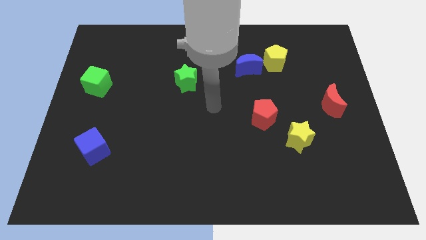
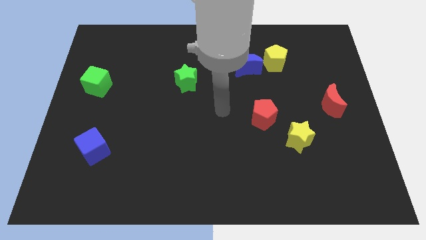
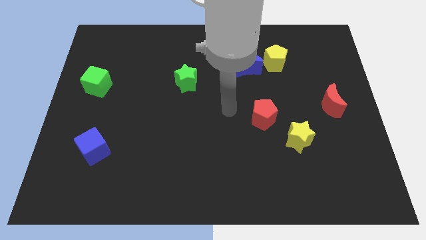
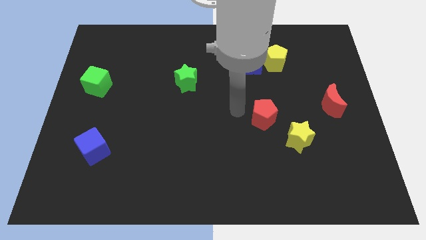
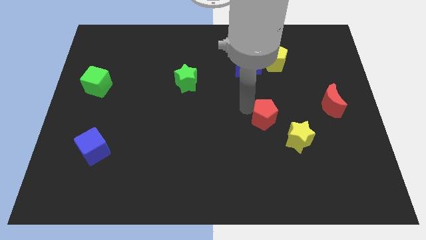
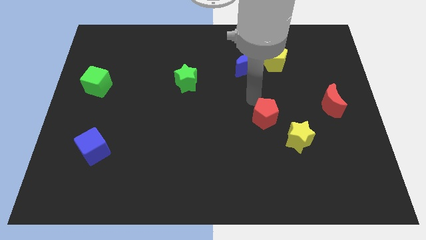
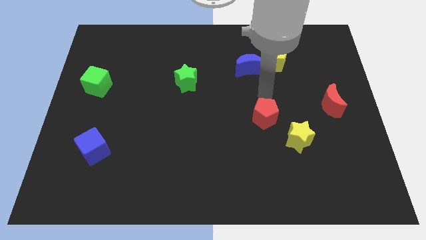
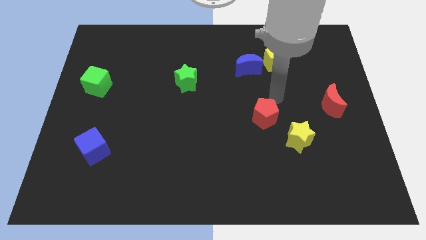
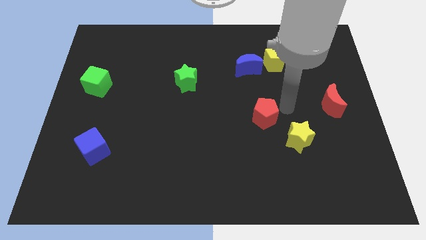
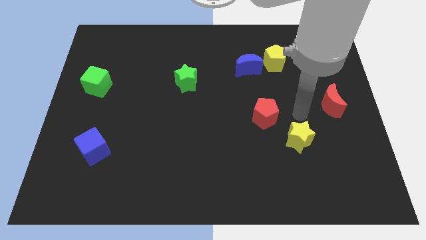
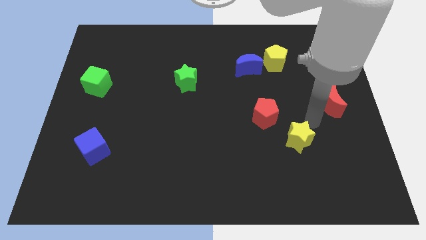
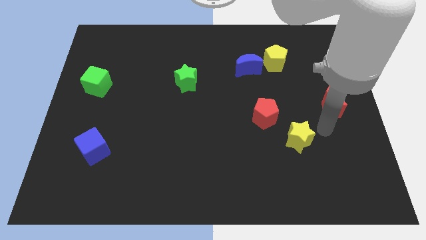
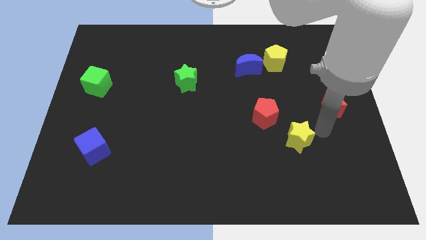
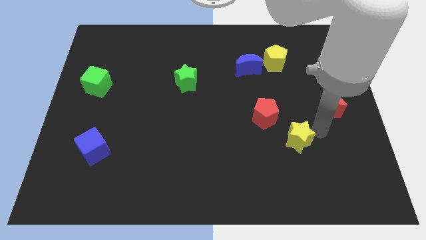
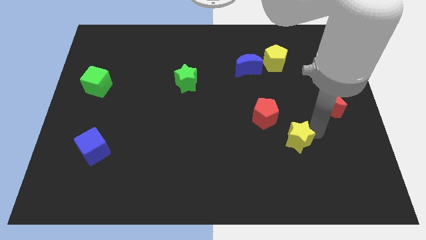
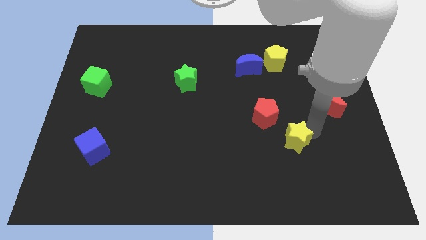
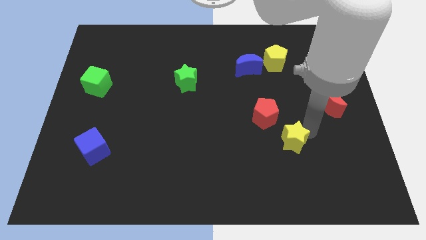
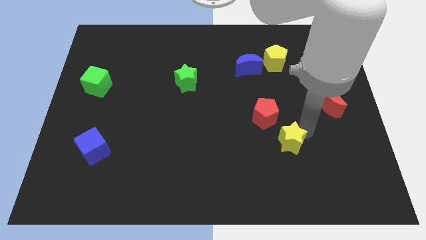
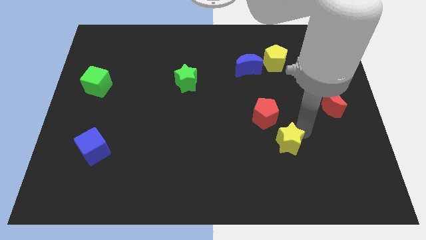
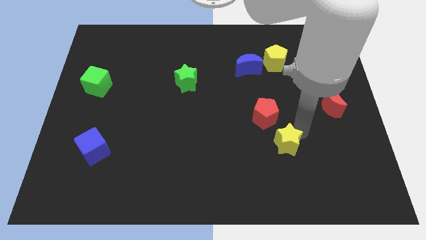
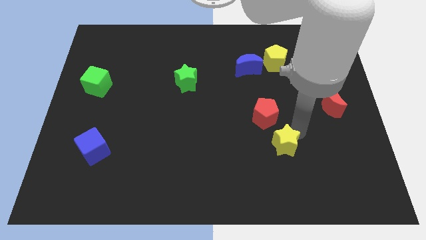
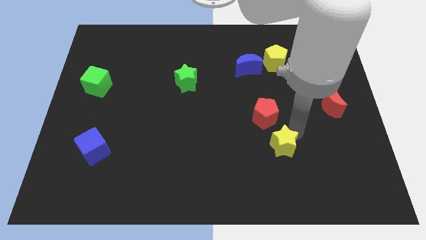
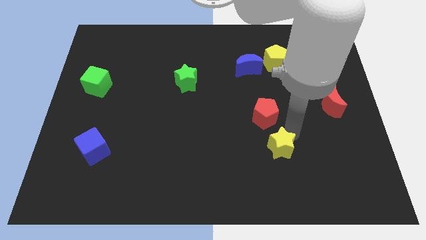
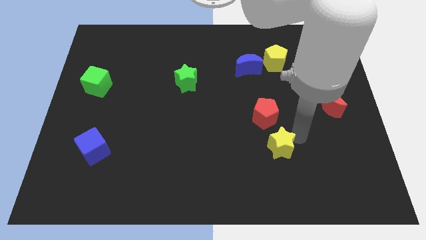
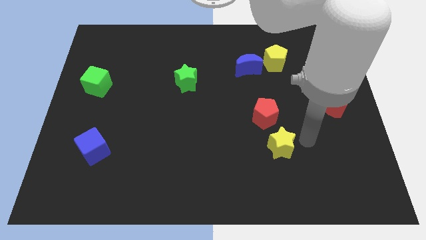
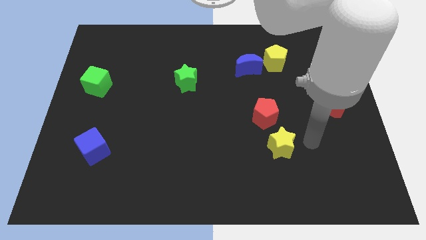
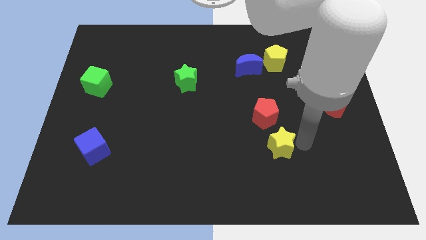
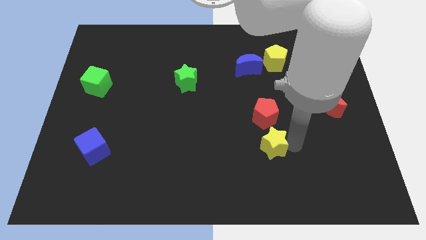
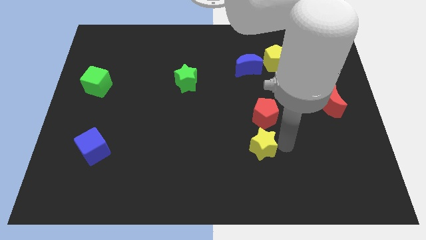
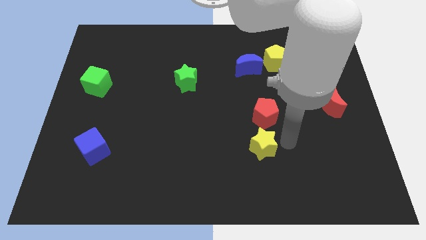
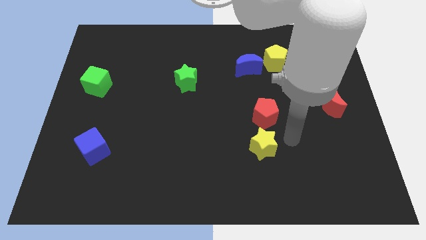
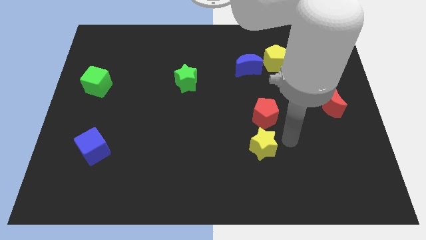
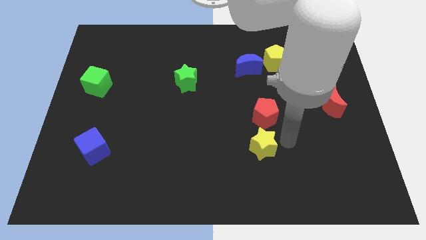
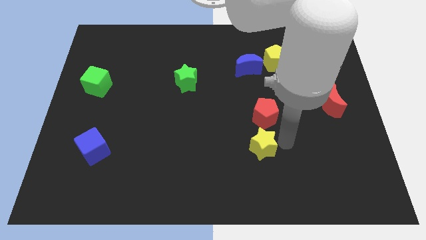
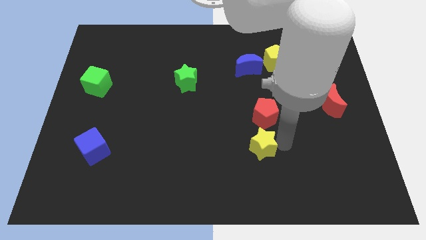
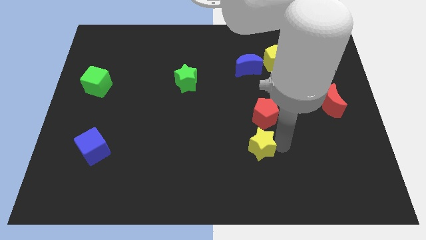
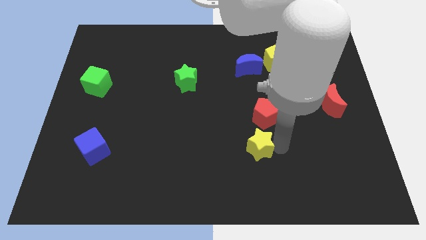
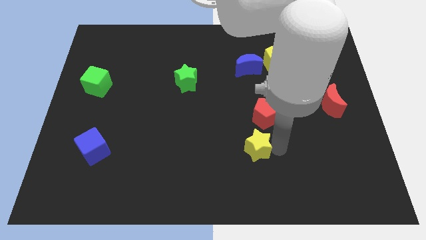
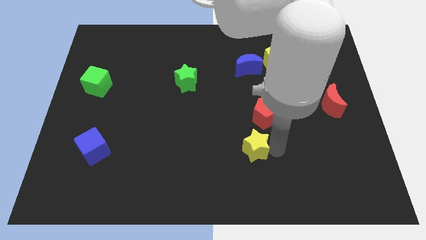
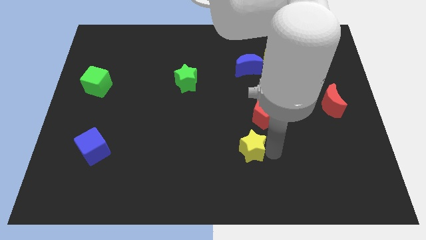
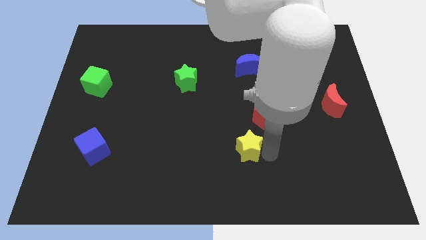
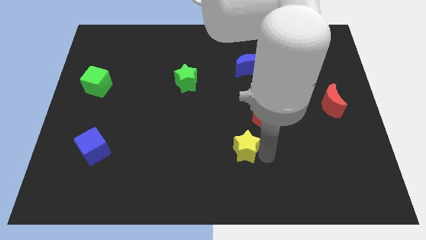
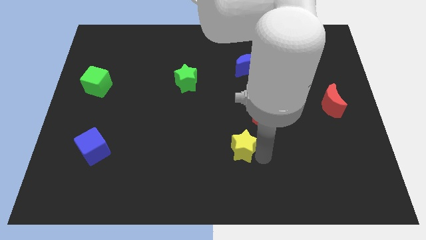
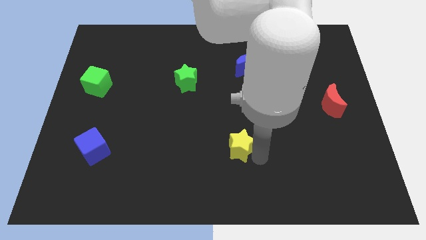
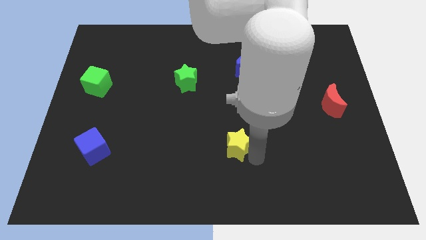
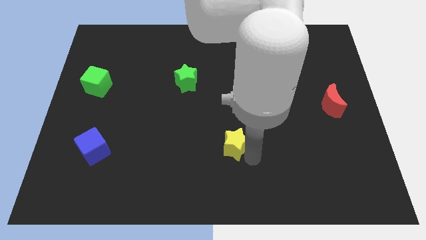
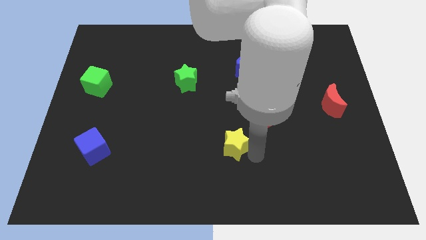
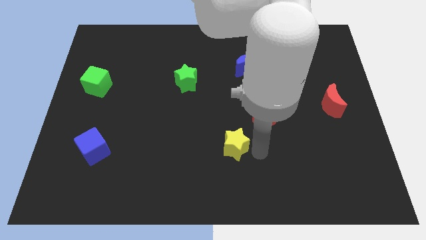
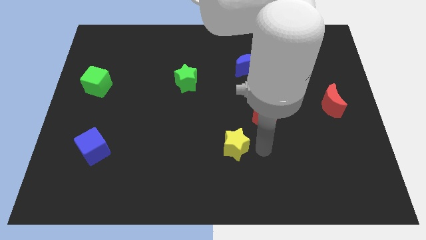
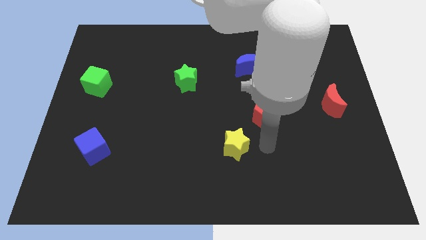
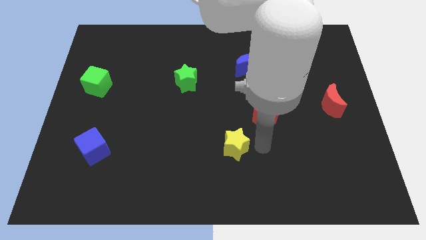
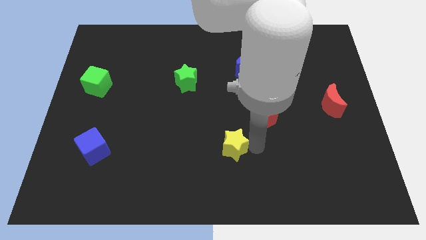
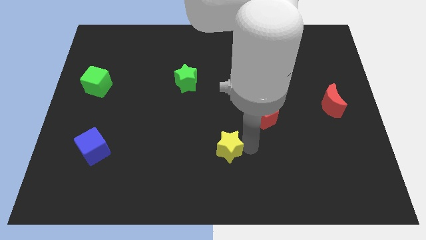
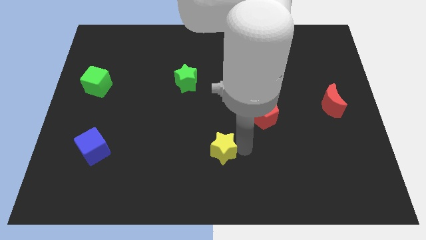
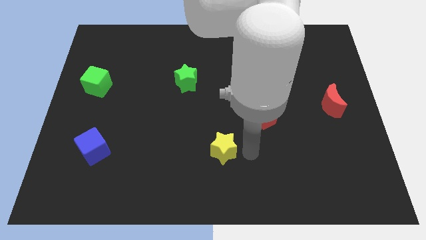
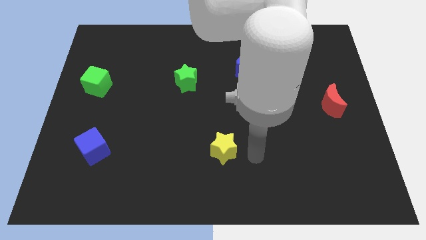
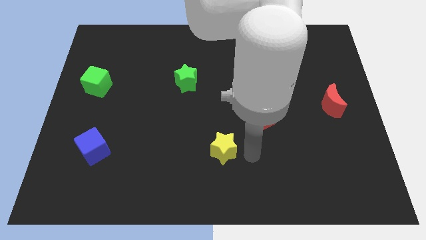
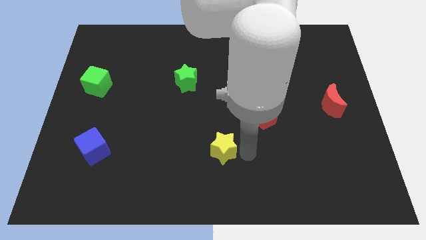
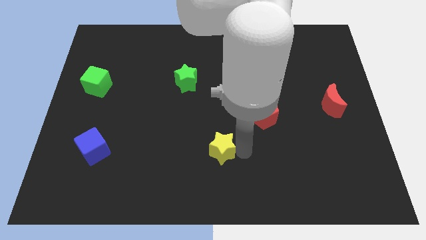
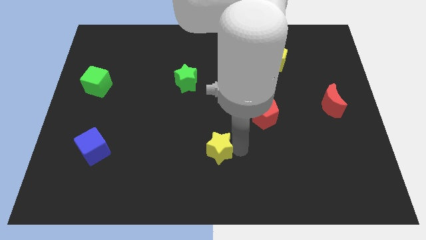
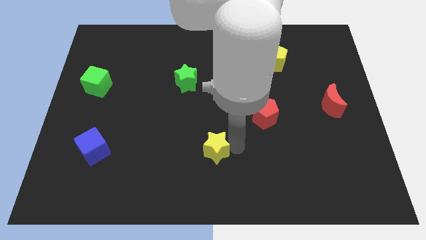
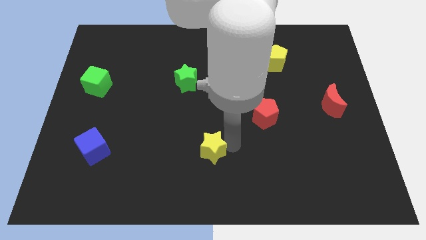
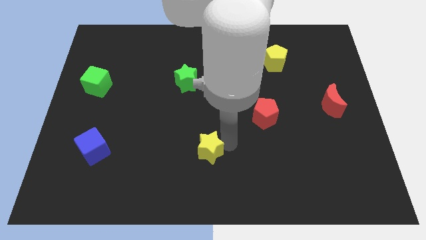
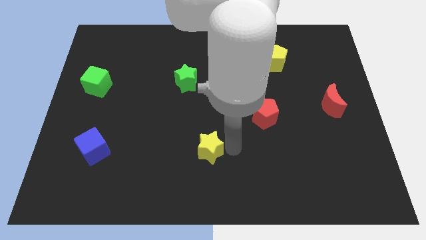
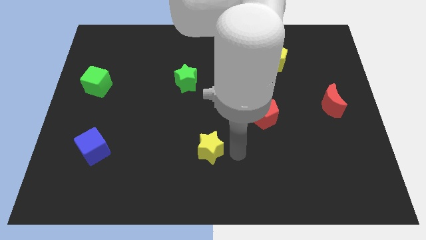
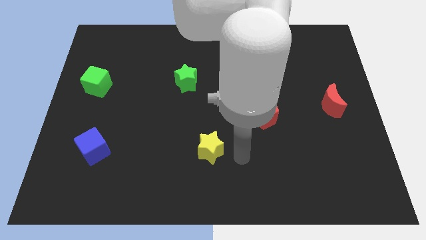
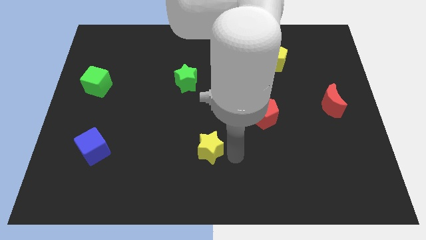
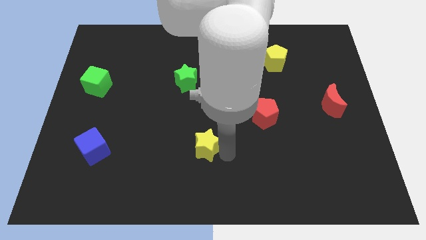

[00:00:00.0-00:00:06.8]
slide the yellow star to the left

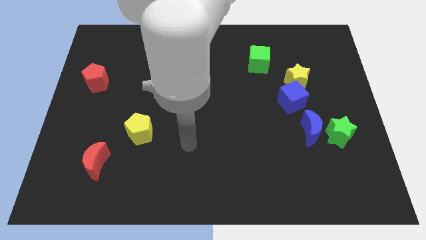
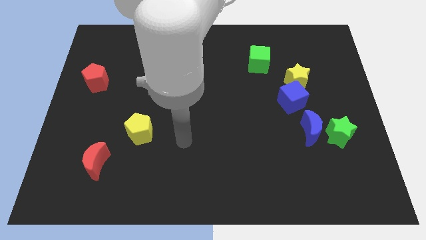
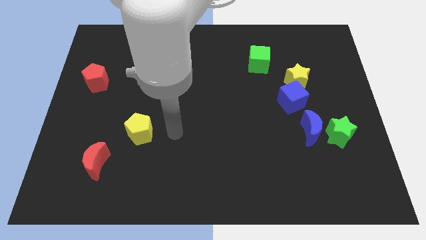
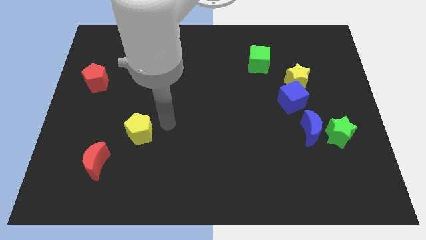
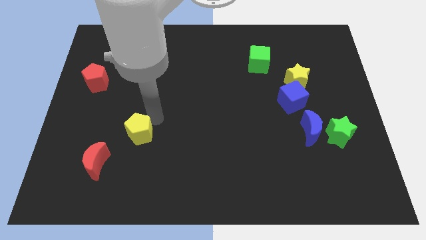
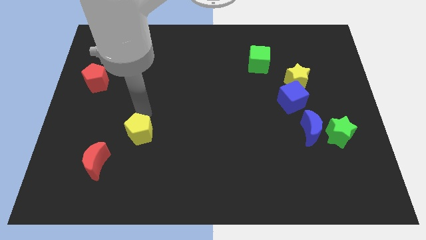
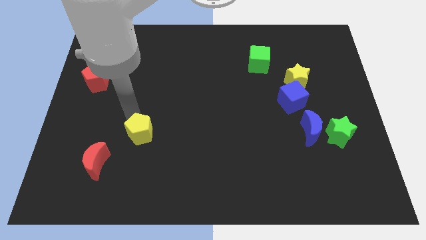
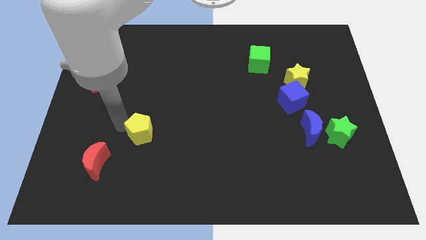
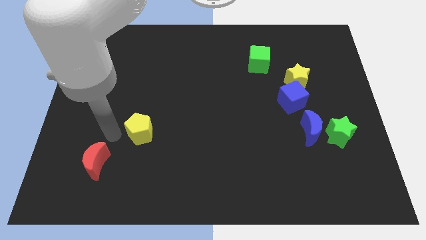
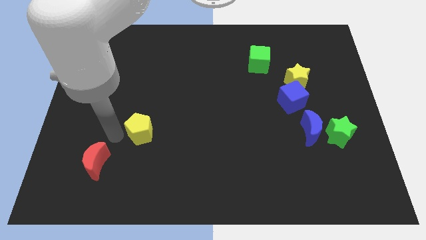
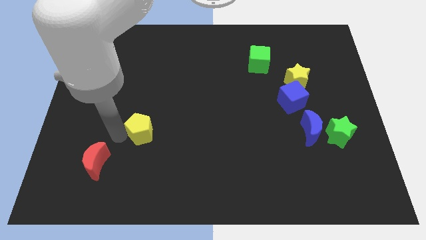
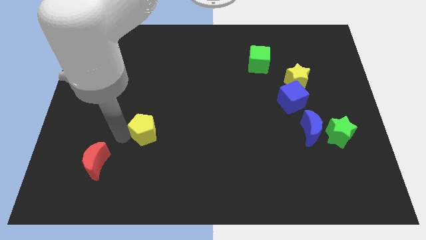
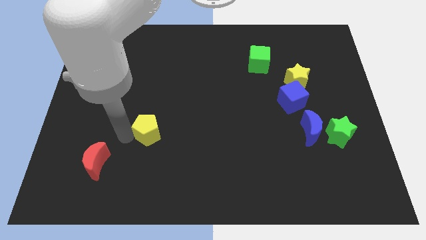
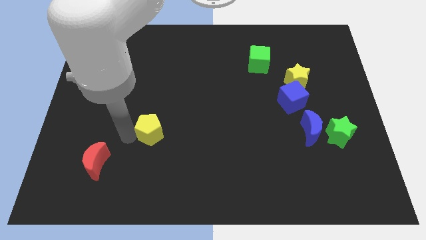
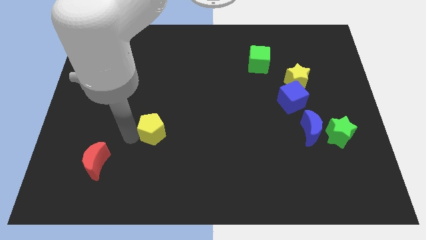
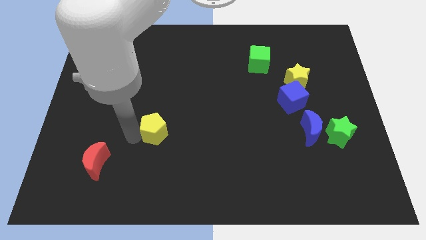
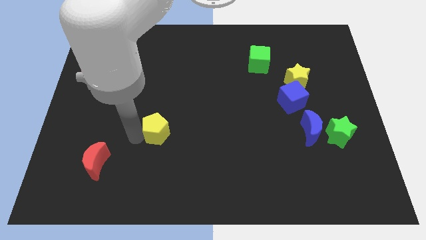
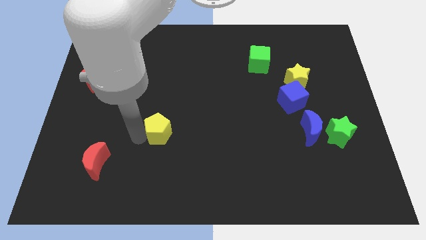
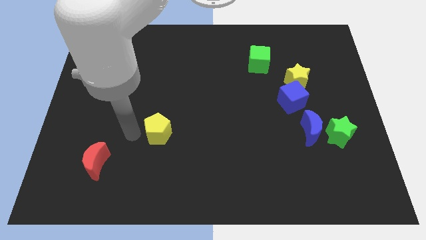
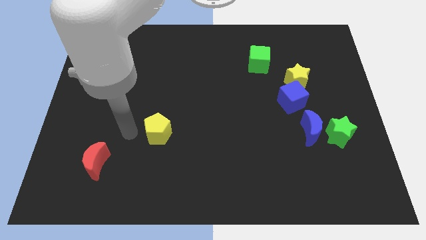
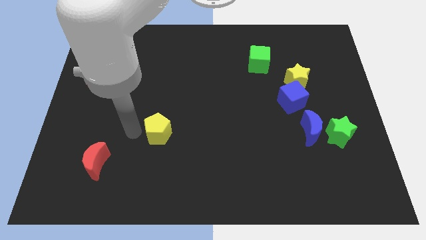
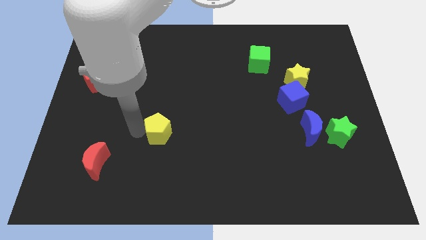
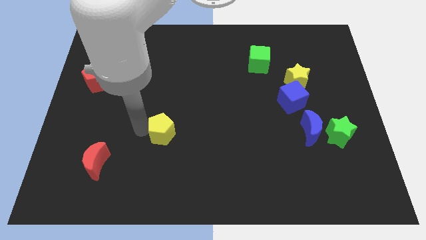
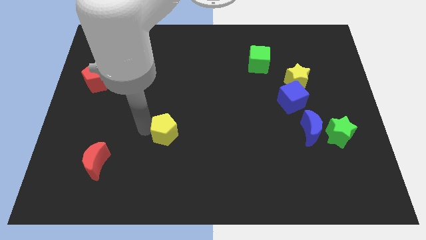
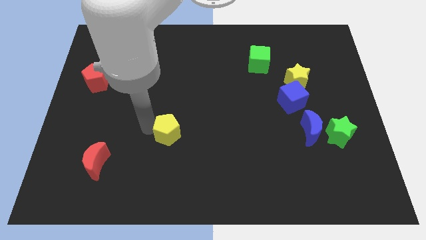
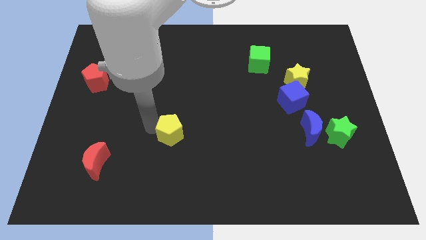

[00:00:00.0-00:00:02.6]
push the yellow pentagon slightly right
